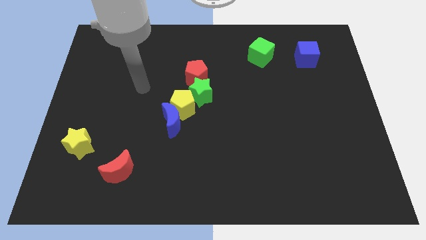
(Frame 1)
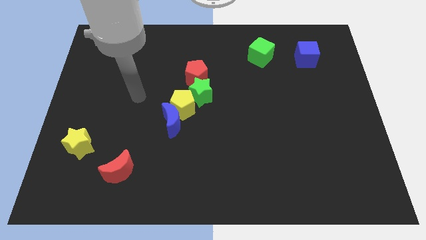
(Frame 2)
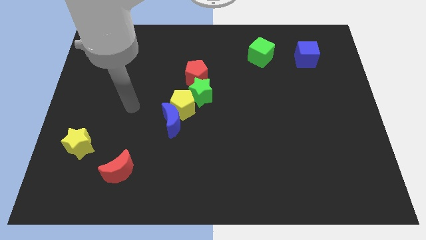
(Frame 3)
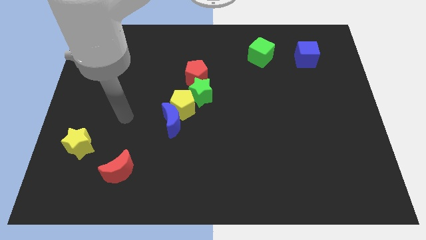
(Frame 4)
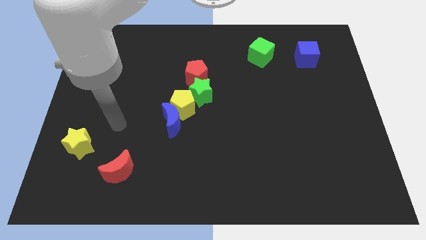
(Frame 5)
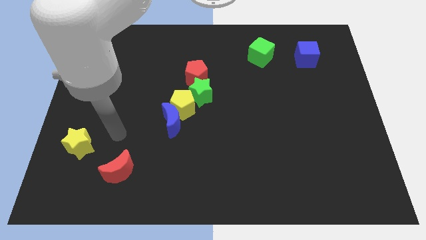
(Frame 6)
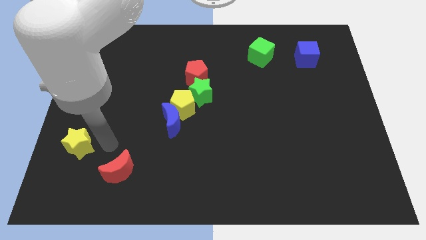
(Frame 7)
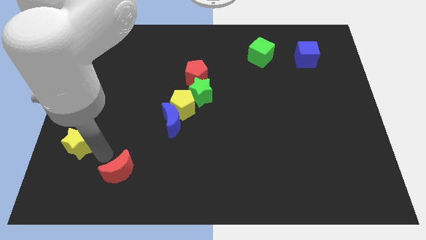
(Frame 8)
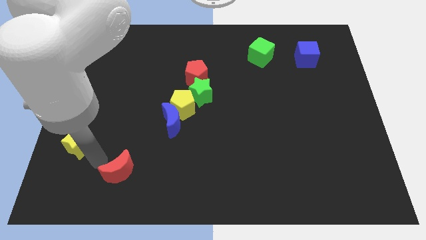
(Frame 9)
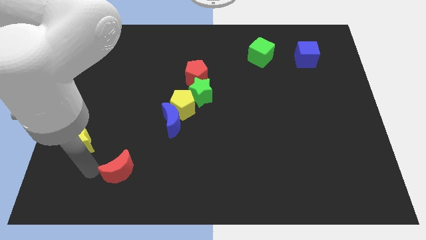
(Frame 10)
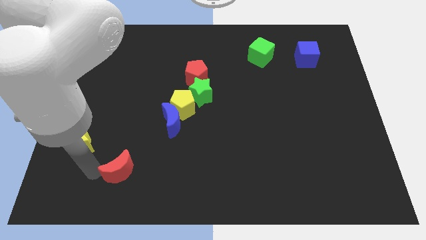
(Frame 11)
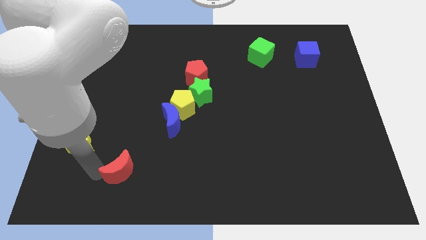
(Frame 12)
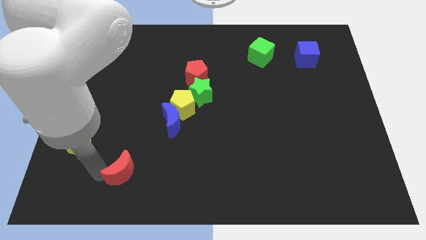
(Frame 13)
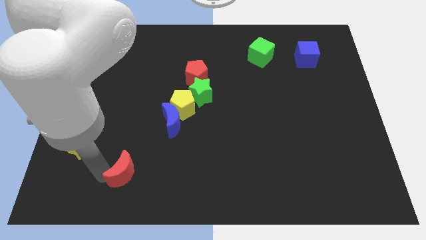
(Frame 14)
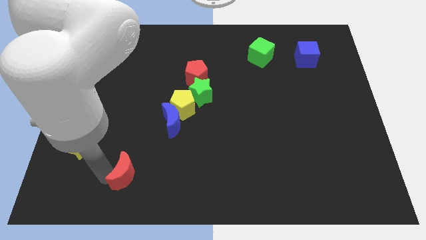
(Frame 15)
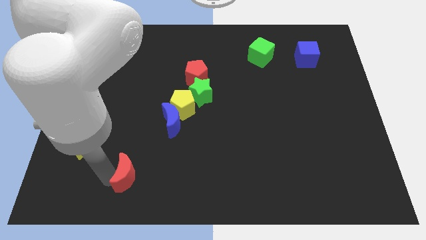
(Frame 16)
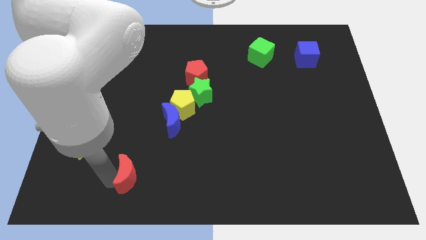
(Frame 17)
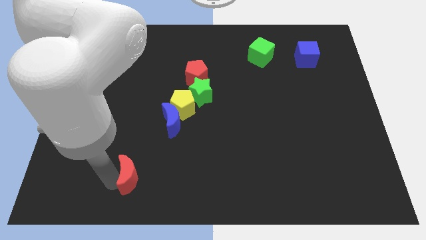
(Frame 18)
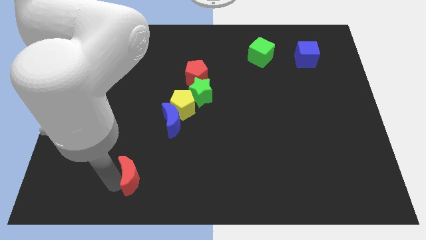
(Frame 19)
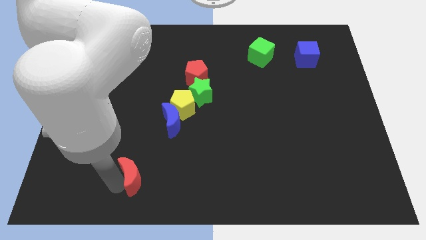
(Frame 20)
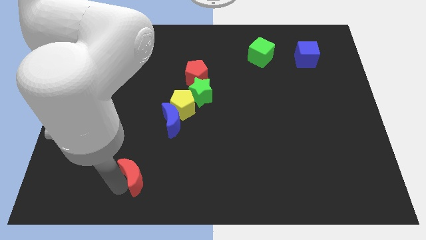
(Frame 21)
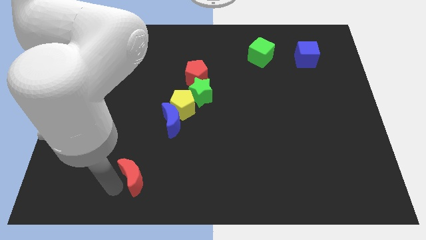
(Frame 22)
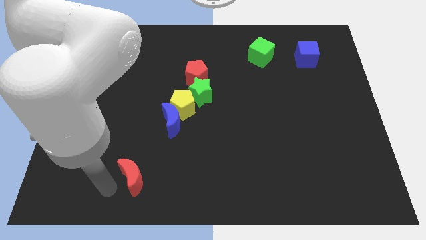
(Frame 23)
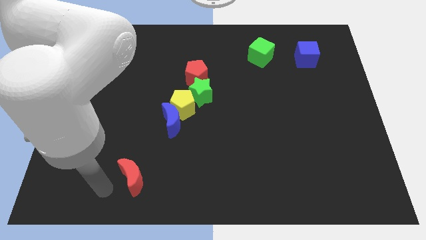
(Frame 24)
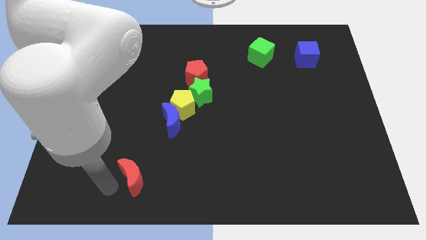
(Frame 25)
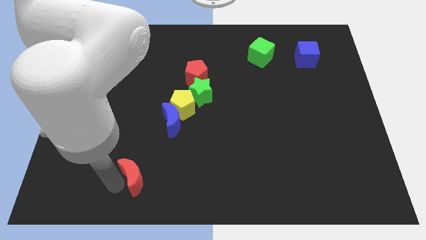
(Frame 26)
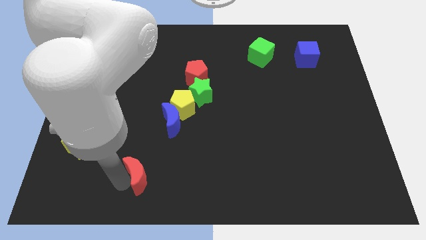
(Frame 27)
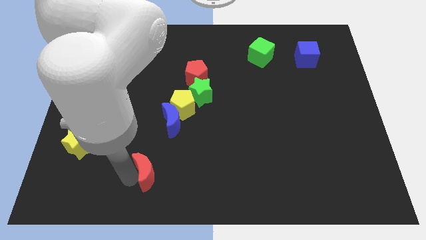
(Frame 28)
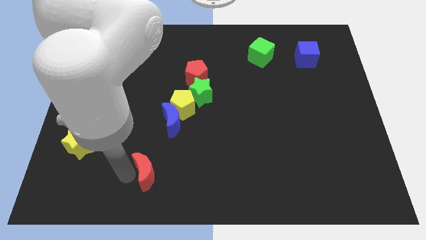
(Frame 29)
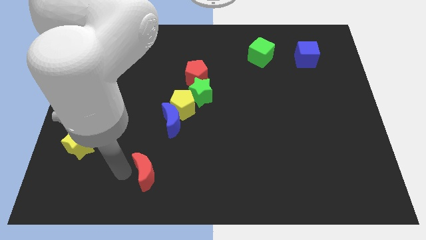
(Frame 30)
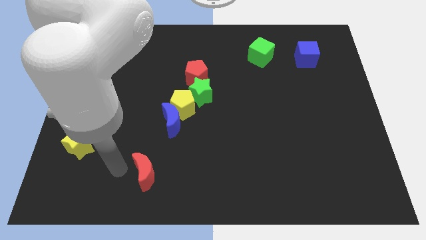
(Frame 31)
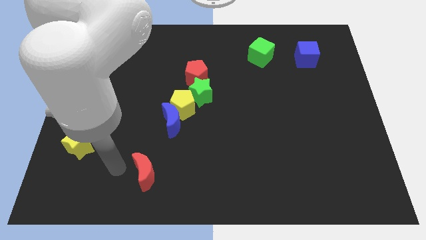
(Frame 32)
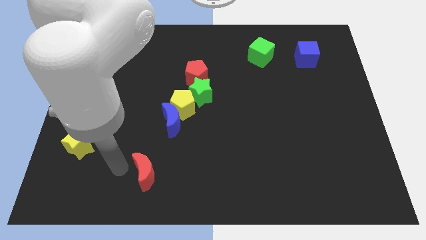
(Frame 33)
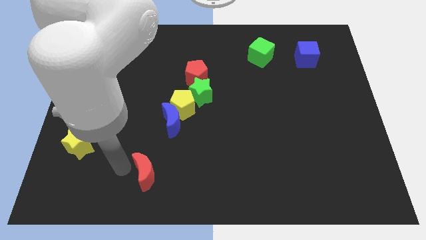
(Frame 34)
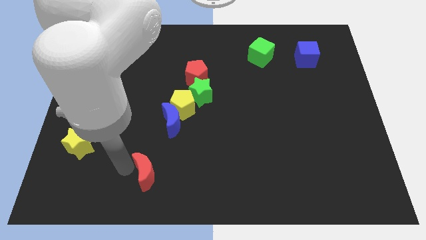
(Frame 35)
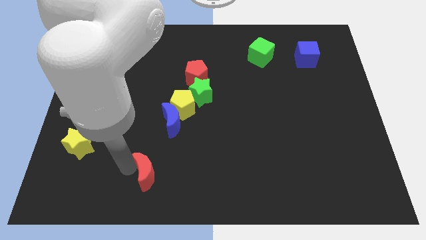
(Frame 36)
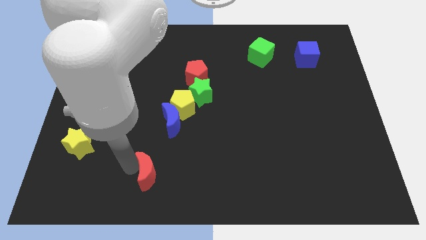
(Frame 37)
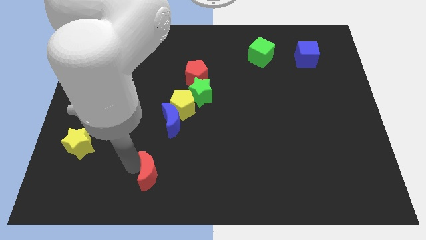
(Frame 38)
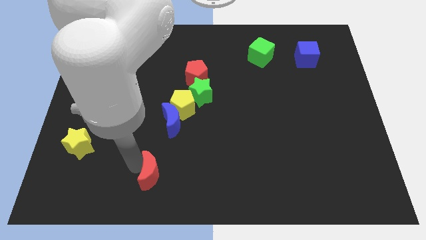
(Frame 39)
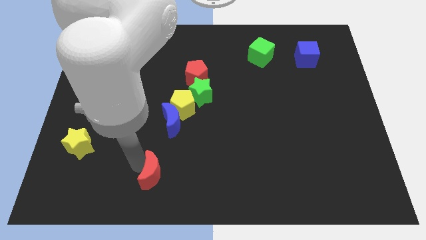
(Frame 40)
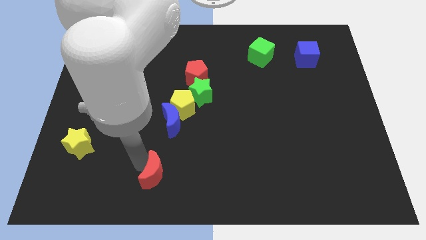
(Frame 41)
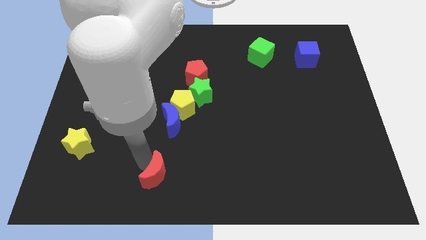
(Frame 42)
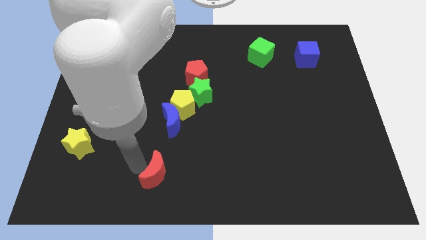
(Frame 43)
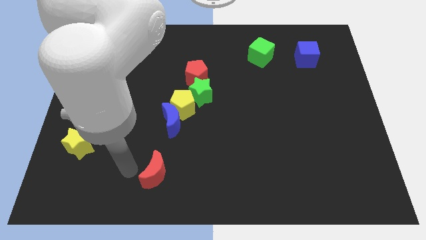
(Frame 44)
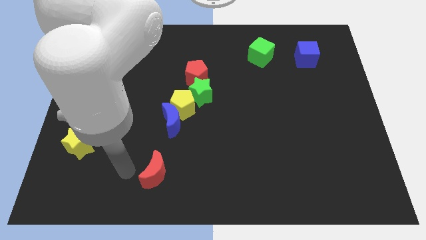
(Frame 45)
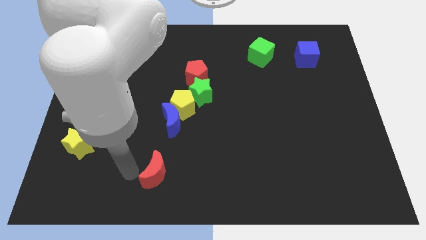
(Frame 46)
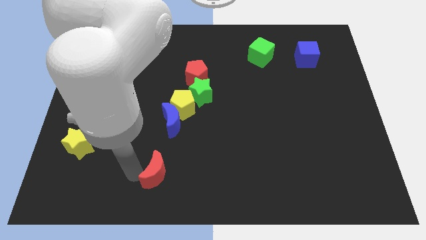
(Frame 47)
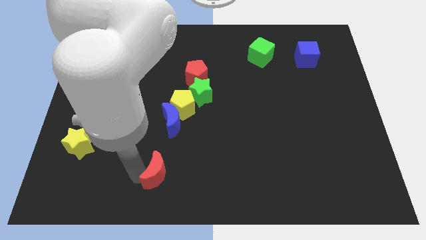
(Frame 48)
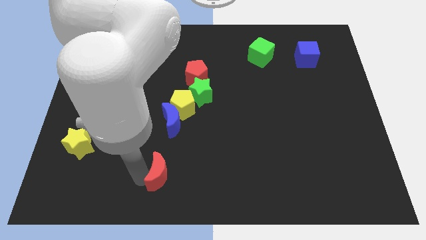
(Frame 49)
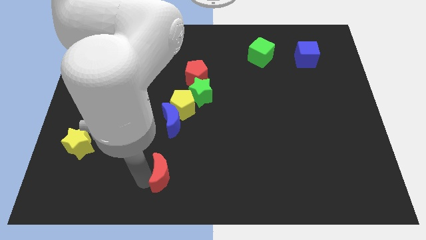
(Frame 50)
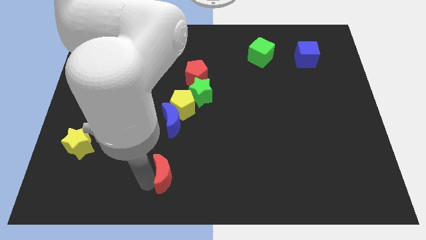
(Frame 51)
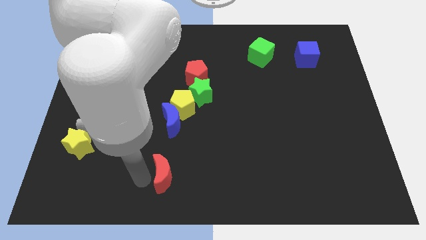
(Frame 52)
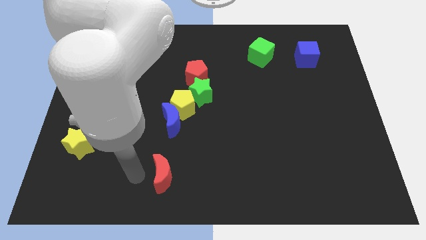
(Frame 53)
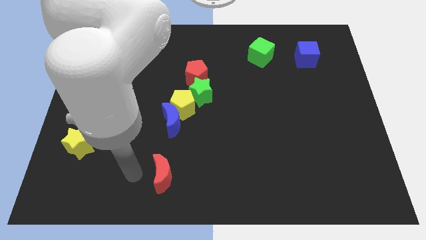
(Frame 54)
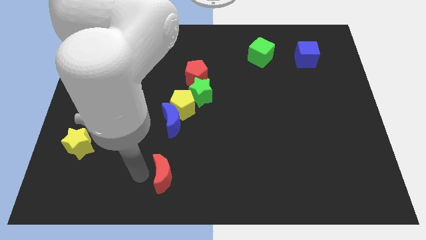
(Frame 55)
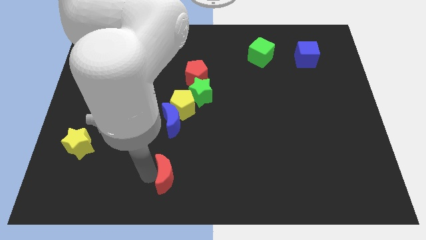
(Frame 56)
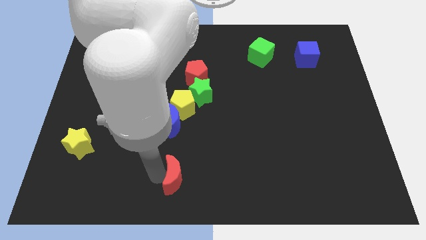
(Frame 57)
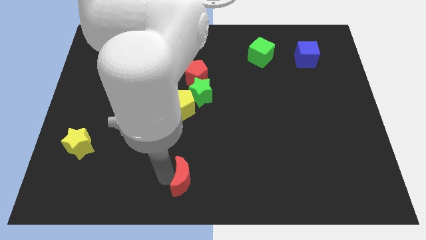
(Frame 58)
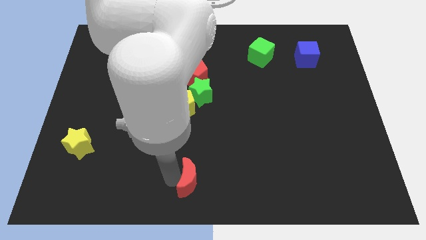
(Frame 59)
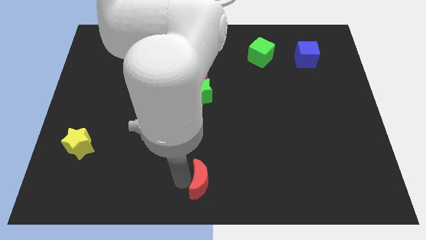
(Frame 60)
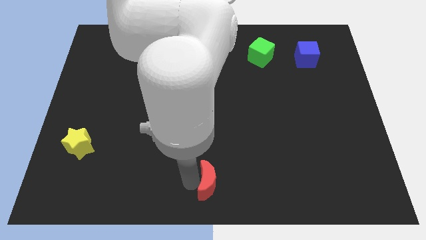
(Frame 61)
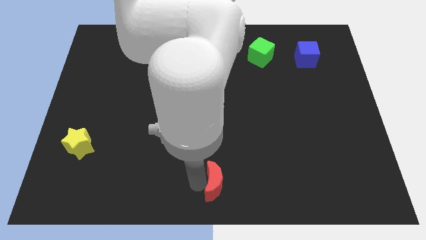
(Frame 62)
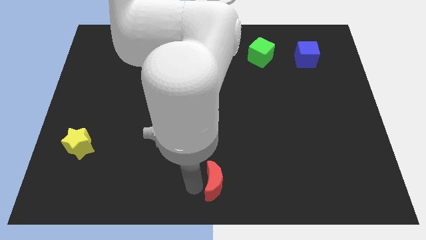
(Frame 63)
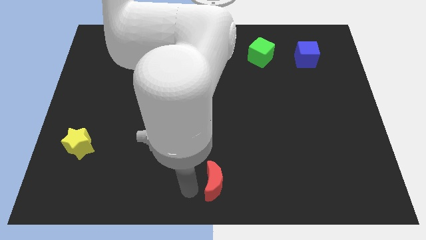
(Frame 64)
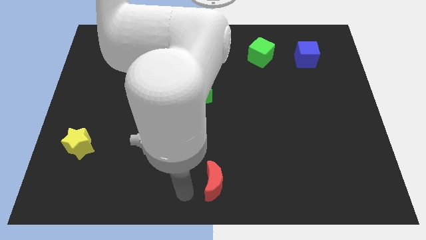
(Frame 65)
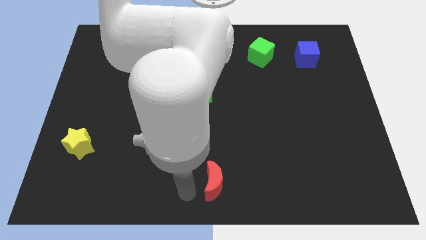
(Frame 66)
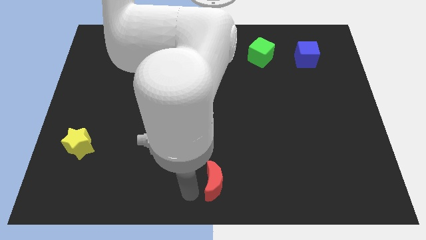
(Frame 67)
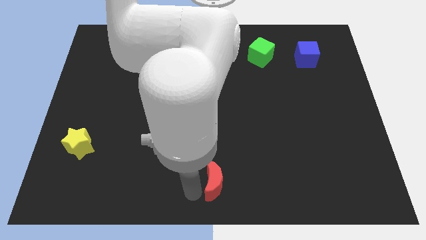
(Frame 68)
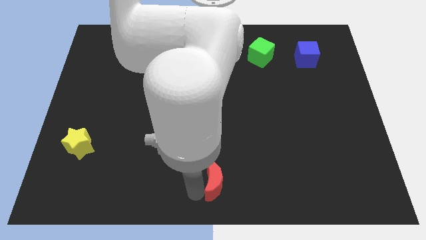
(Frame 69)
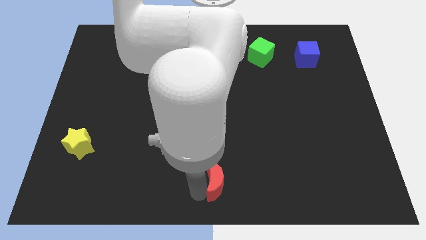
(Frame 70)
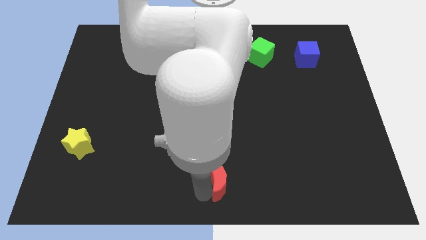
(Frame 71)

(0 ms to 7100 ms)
move the red moon to the right

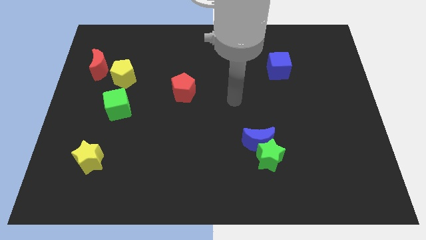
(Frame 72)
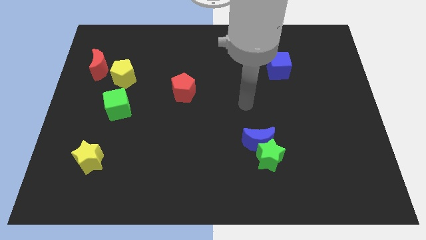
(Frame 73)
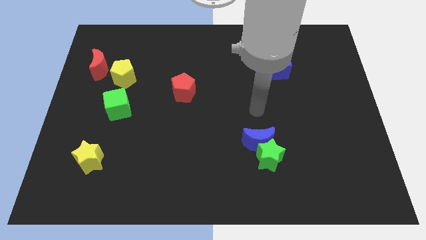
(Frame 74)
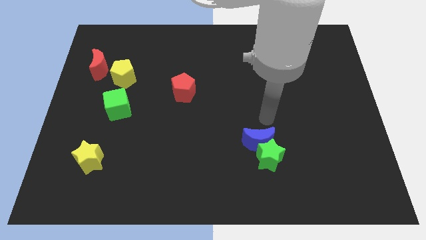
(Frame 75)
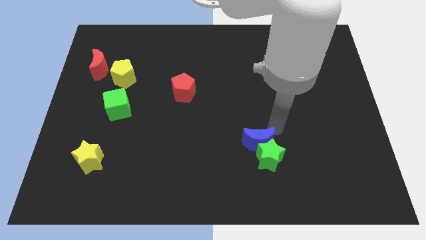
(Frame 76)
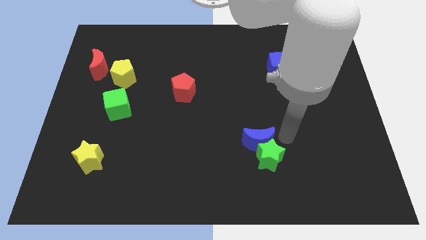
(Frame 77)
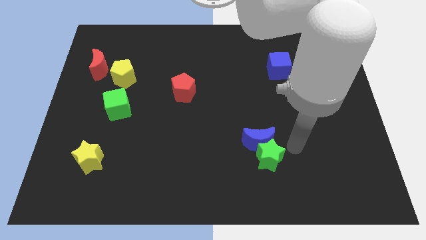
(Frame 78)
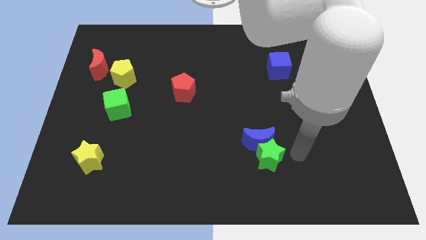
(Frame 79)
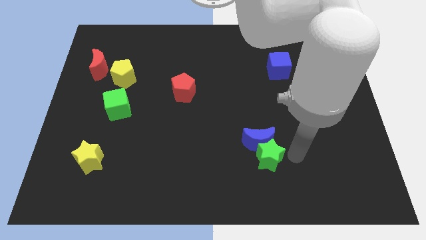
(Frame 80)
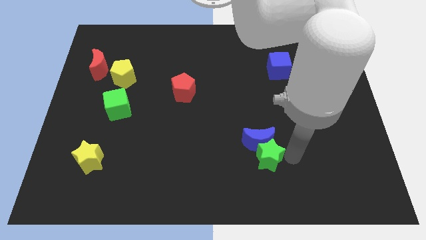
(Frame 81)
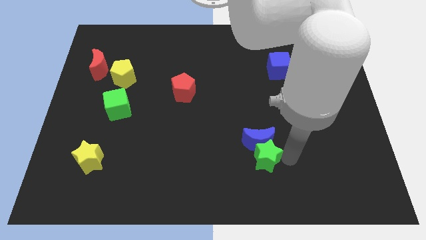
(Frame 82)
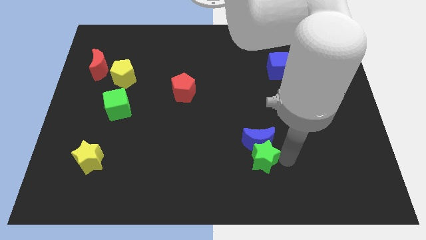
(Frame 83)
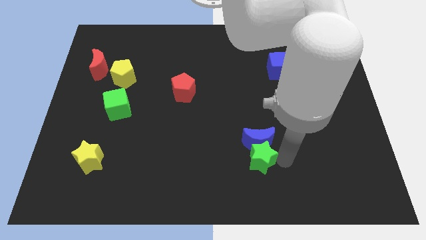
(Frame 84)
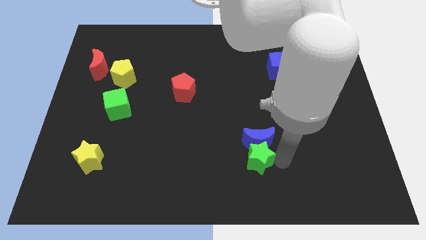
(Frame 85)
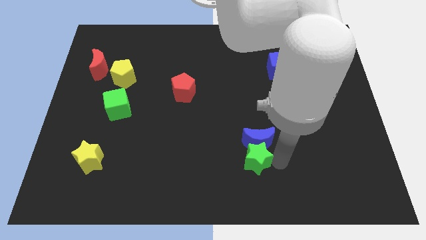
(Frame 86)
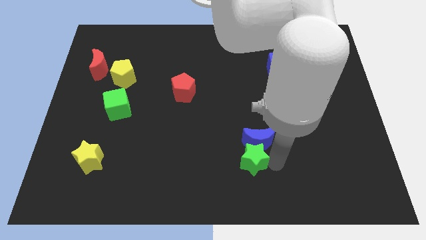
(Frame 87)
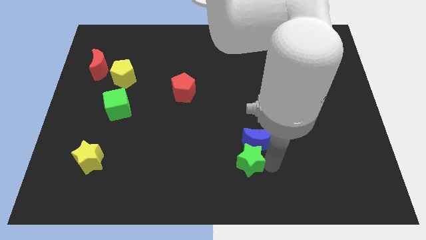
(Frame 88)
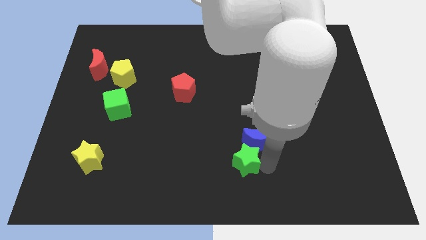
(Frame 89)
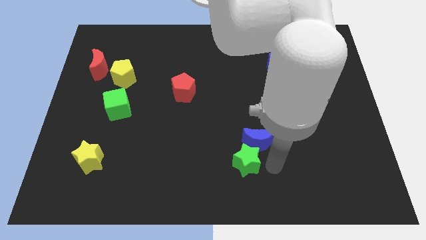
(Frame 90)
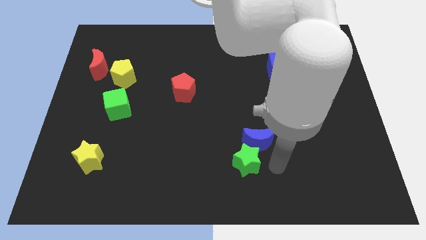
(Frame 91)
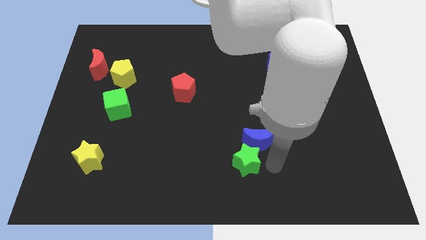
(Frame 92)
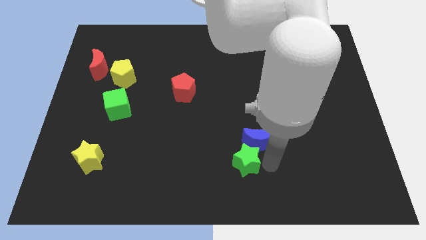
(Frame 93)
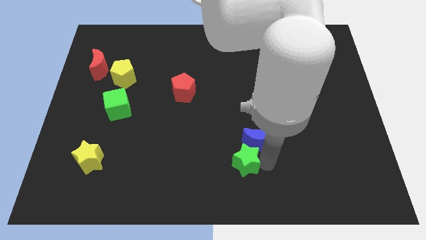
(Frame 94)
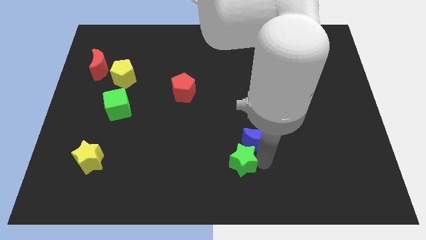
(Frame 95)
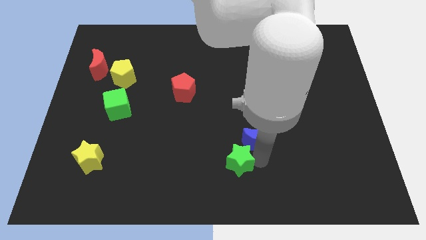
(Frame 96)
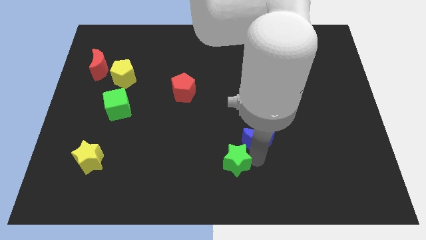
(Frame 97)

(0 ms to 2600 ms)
slightly slide the green star left
